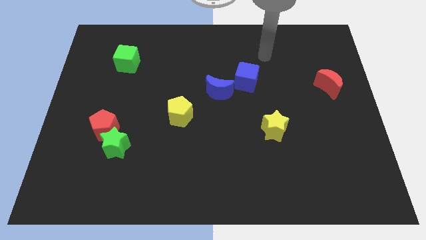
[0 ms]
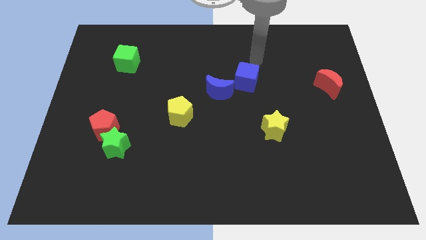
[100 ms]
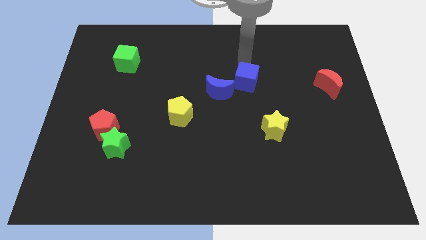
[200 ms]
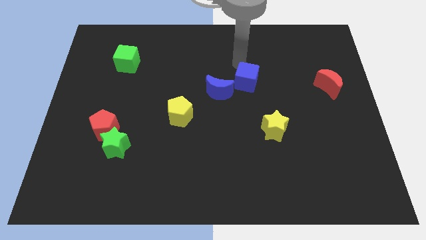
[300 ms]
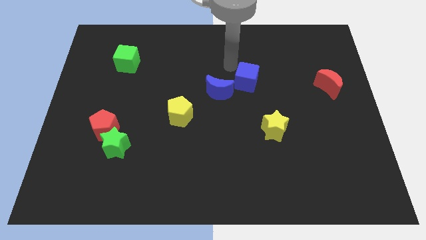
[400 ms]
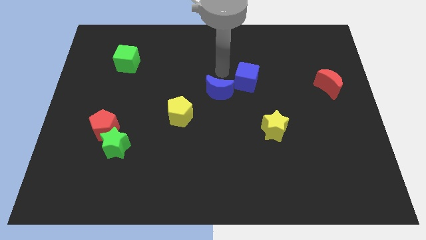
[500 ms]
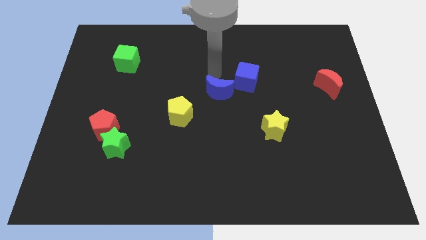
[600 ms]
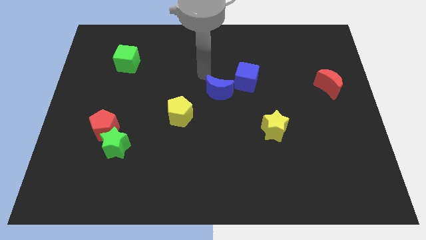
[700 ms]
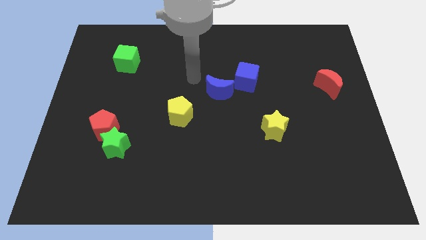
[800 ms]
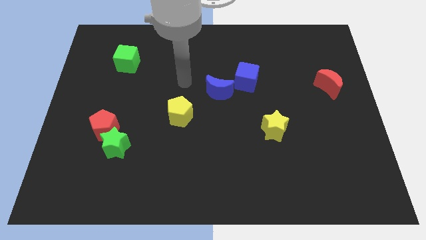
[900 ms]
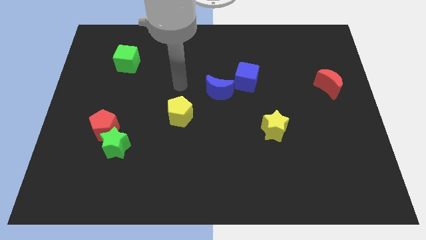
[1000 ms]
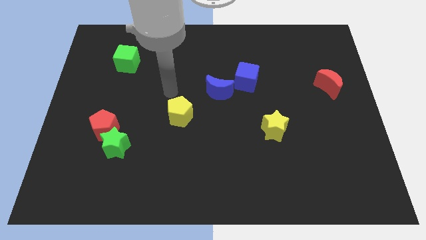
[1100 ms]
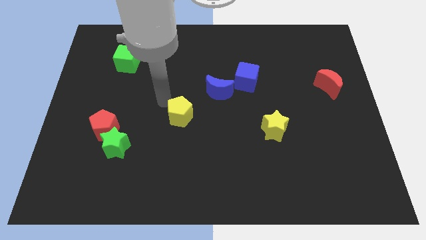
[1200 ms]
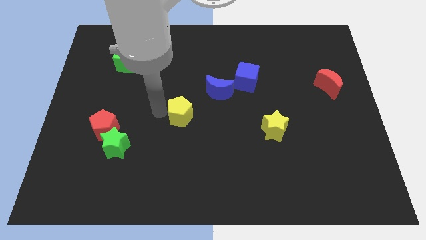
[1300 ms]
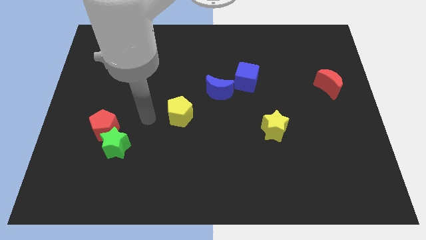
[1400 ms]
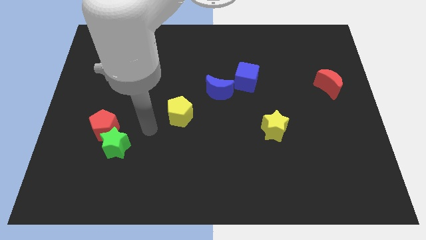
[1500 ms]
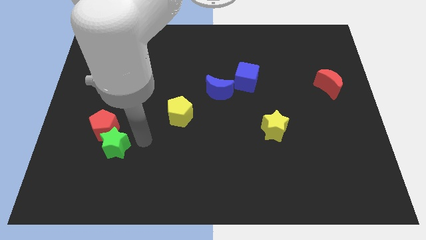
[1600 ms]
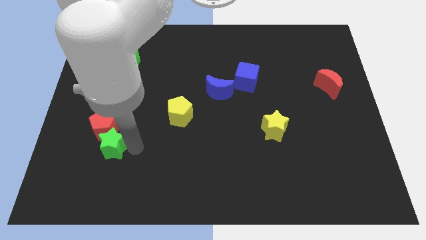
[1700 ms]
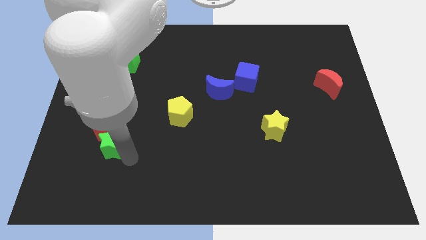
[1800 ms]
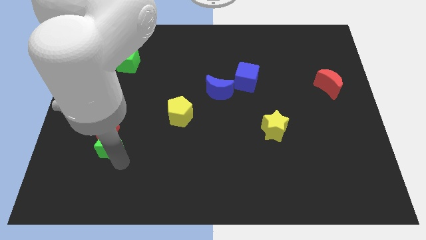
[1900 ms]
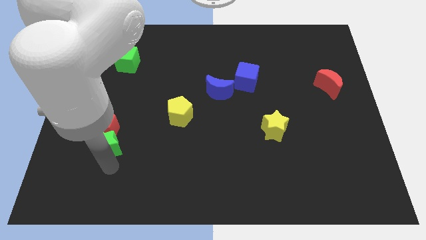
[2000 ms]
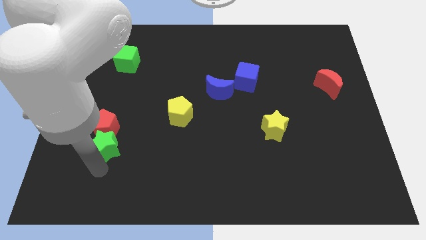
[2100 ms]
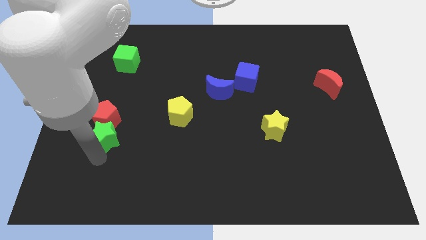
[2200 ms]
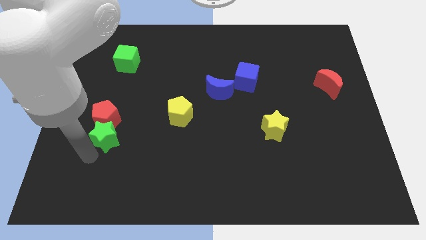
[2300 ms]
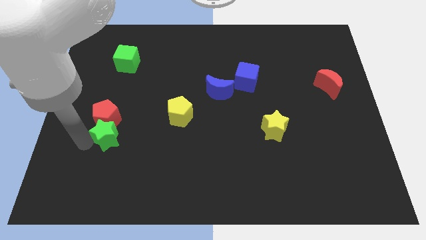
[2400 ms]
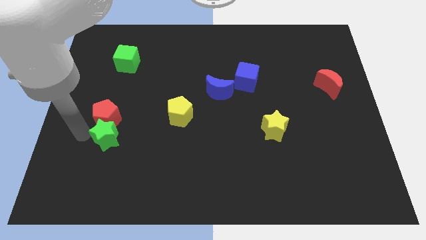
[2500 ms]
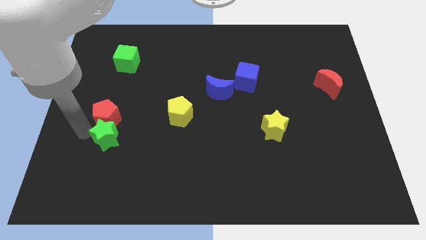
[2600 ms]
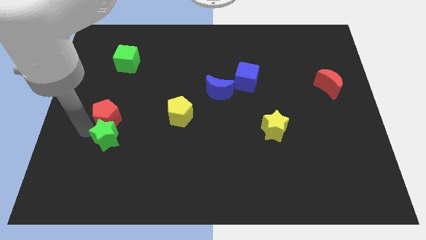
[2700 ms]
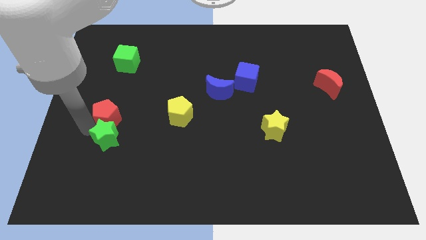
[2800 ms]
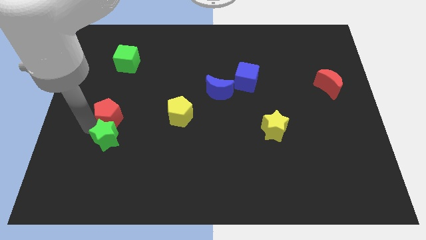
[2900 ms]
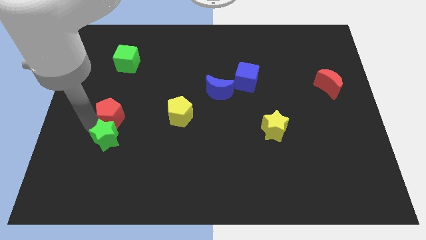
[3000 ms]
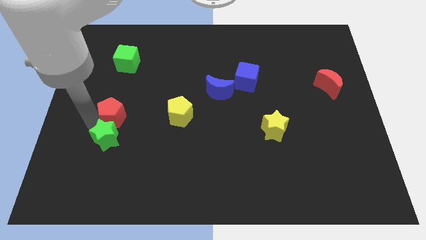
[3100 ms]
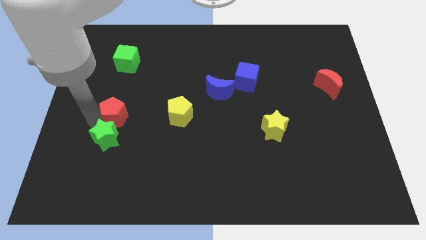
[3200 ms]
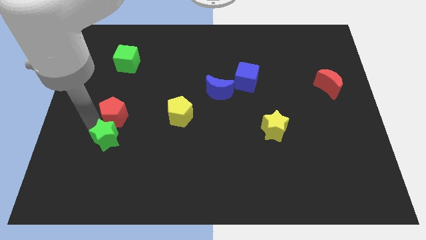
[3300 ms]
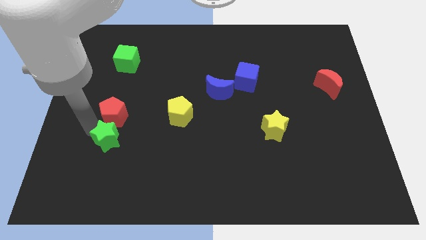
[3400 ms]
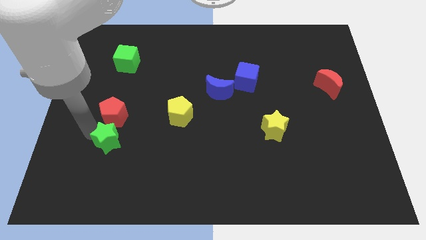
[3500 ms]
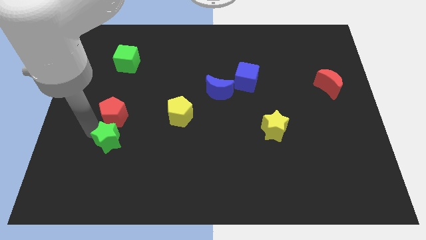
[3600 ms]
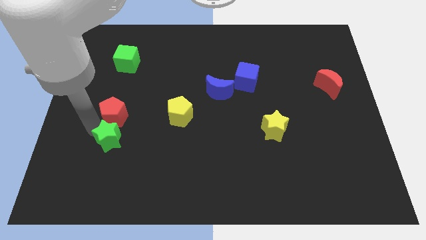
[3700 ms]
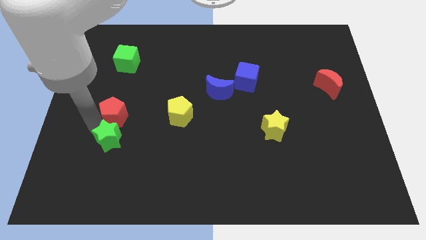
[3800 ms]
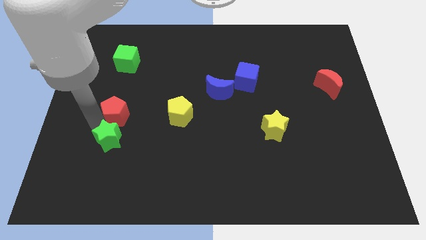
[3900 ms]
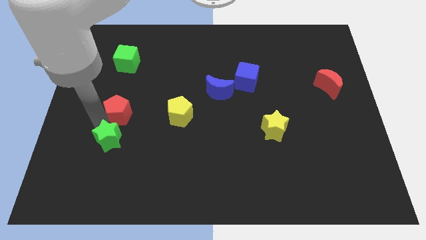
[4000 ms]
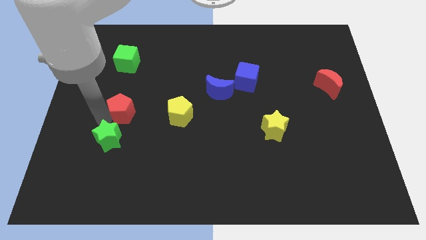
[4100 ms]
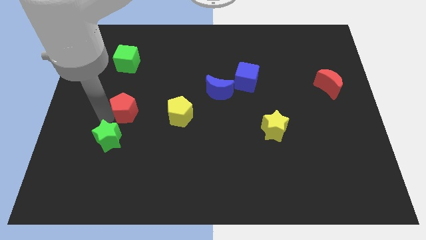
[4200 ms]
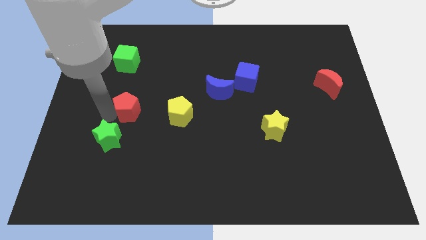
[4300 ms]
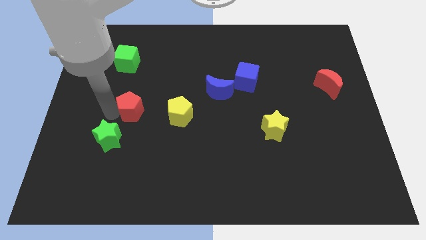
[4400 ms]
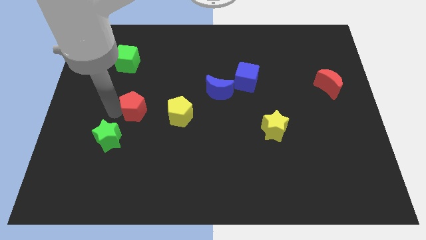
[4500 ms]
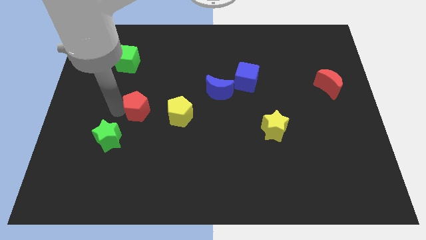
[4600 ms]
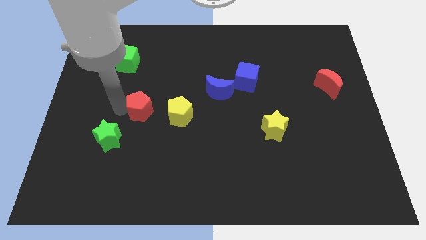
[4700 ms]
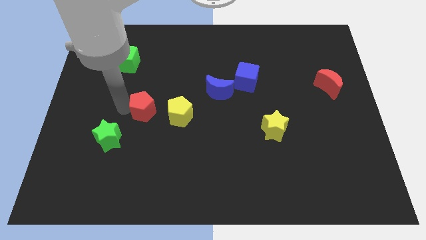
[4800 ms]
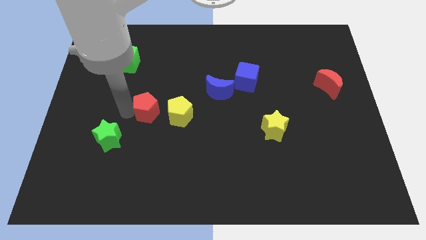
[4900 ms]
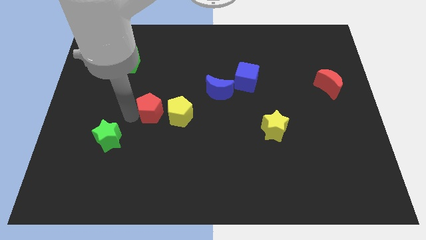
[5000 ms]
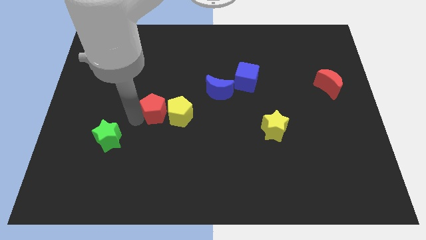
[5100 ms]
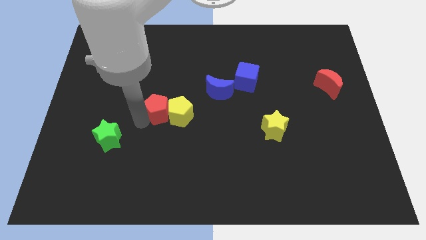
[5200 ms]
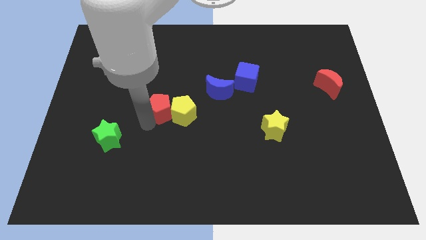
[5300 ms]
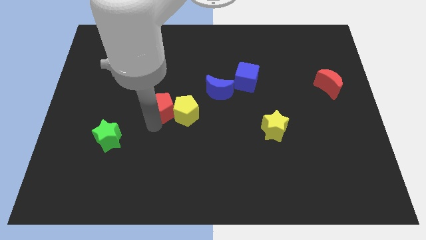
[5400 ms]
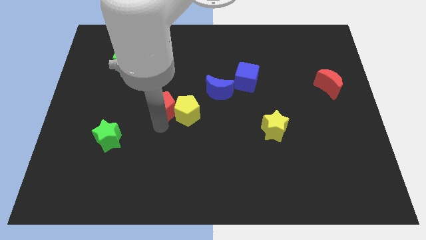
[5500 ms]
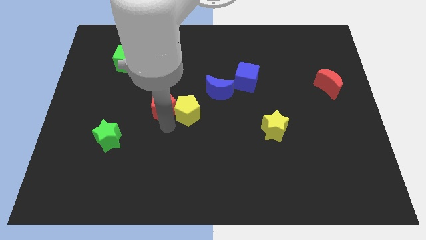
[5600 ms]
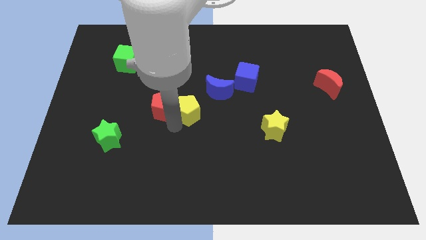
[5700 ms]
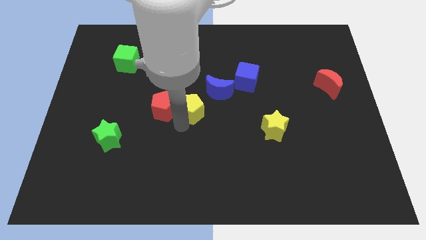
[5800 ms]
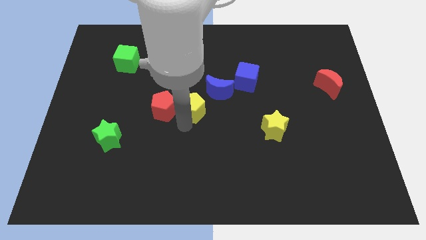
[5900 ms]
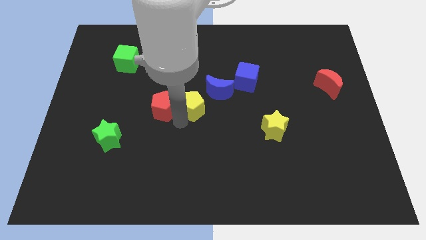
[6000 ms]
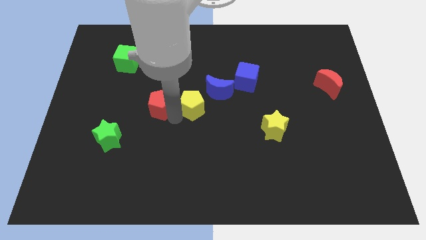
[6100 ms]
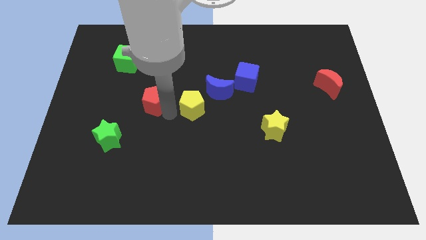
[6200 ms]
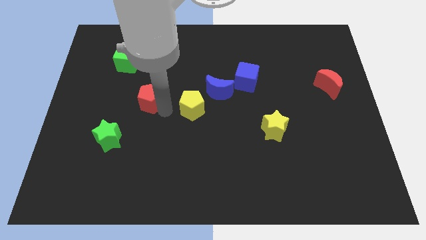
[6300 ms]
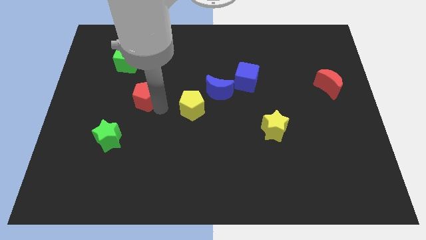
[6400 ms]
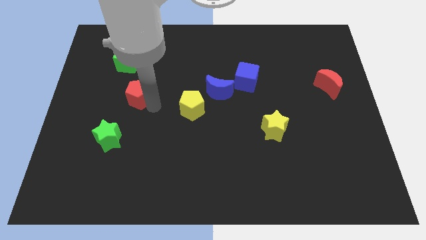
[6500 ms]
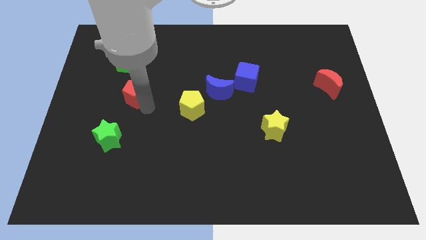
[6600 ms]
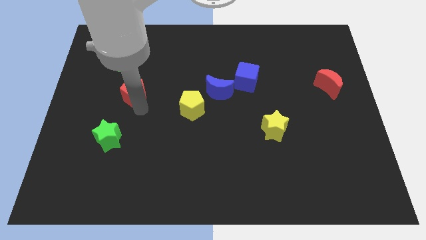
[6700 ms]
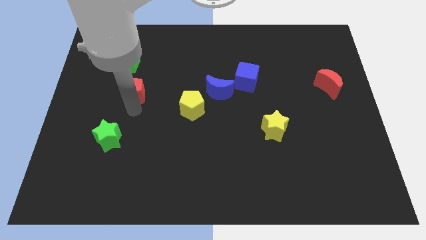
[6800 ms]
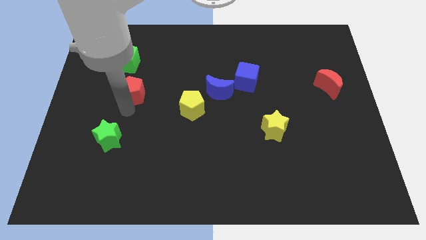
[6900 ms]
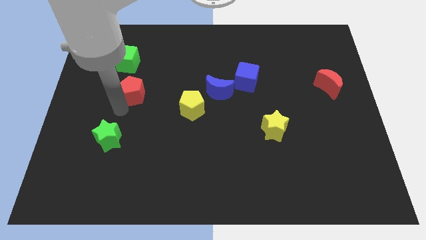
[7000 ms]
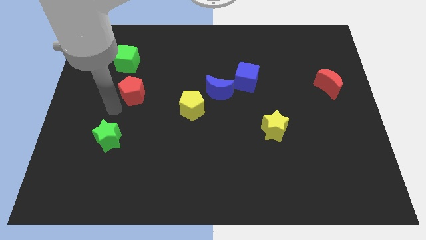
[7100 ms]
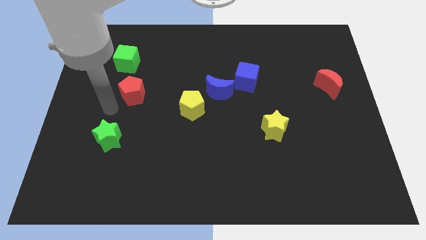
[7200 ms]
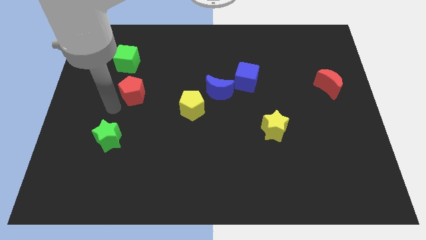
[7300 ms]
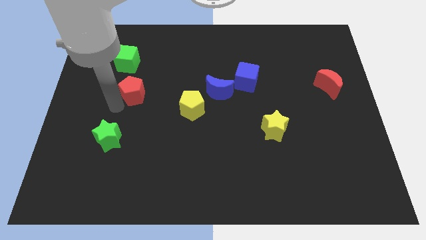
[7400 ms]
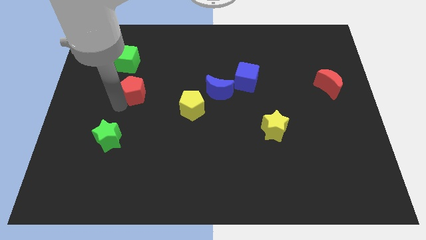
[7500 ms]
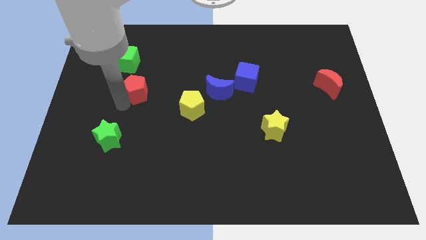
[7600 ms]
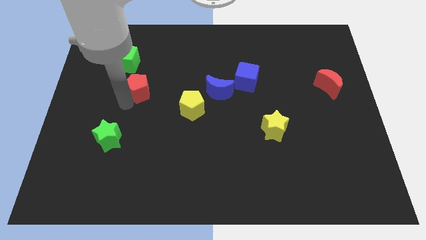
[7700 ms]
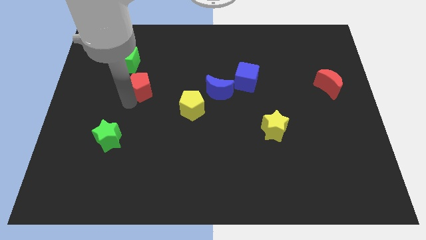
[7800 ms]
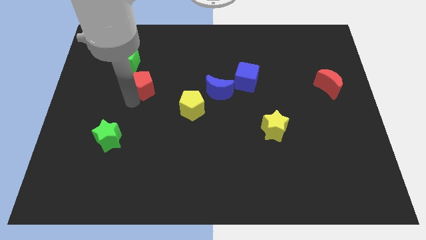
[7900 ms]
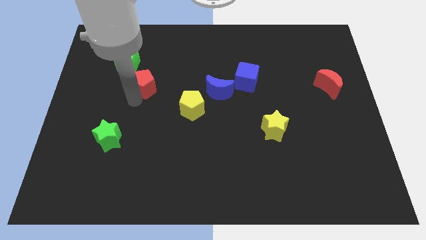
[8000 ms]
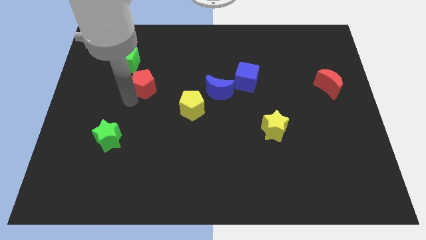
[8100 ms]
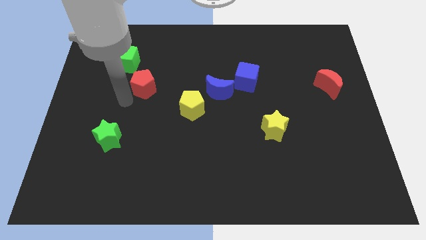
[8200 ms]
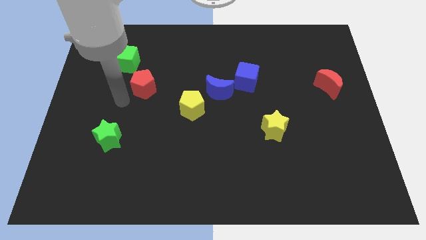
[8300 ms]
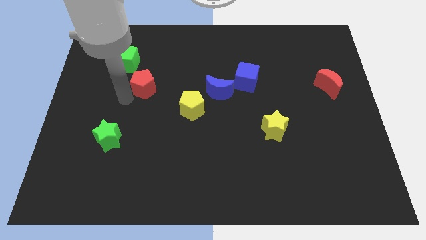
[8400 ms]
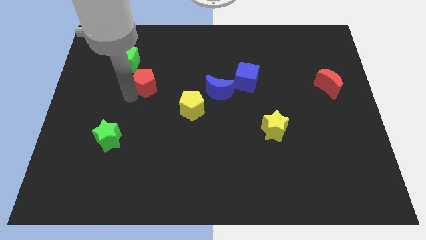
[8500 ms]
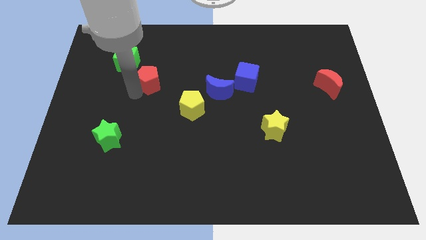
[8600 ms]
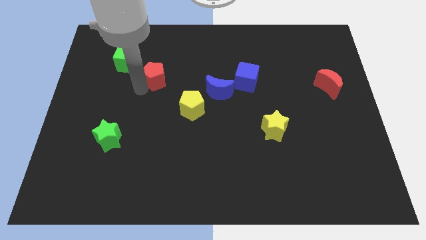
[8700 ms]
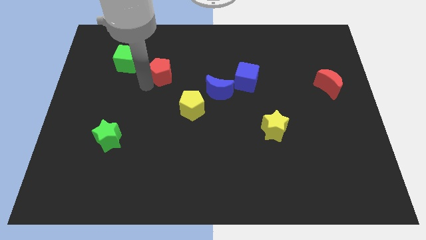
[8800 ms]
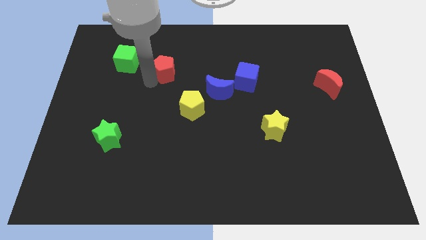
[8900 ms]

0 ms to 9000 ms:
slide the red pentagon up and right diagonally
